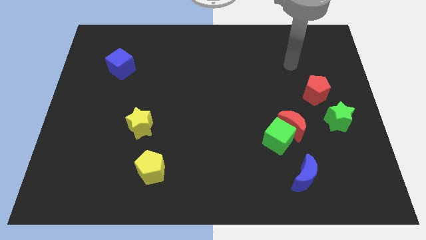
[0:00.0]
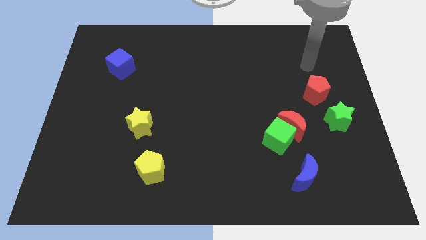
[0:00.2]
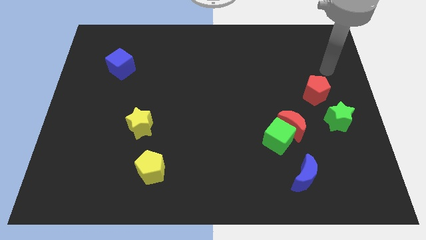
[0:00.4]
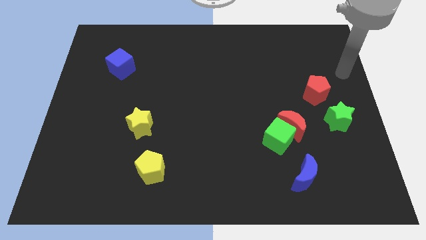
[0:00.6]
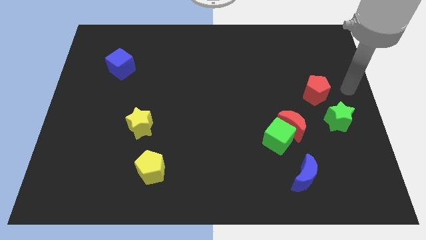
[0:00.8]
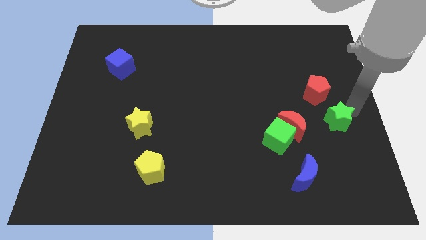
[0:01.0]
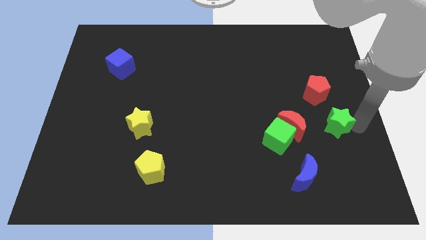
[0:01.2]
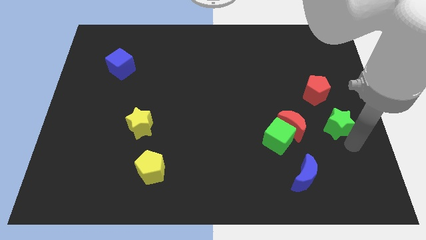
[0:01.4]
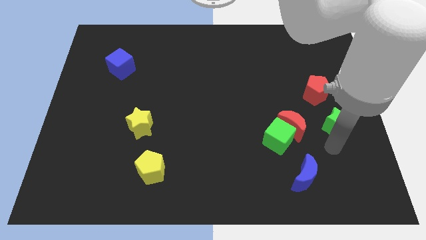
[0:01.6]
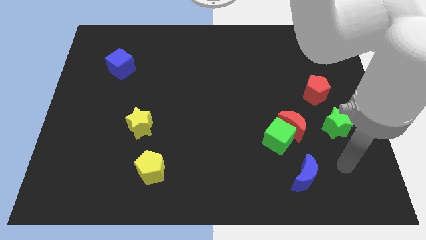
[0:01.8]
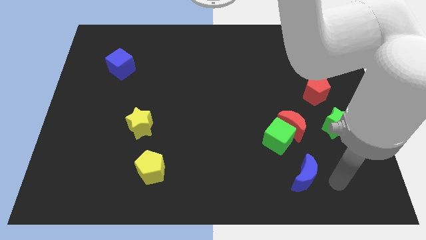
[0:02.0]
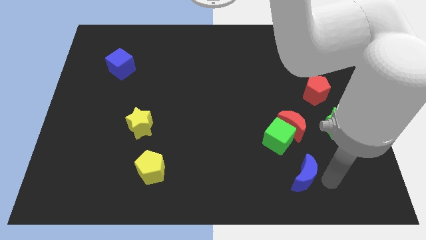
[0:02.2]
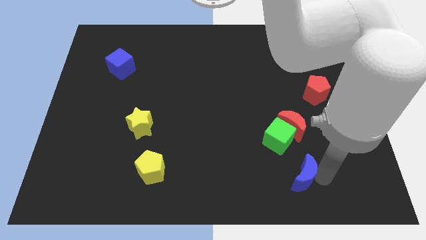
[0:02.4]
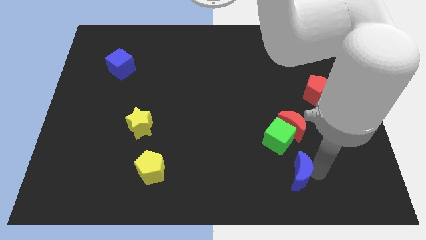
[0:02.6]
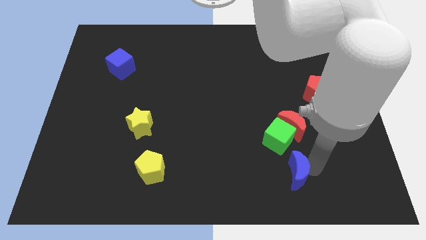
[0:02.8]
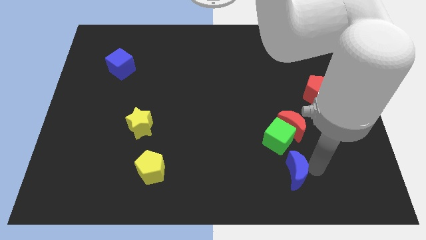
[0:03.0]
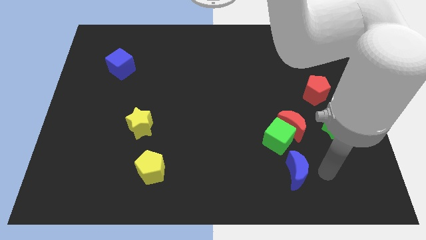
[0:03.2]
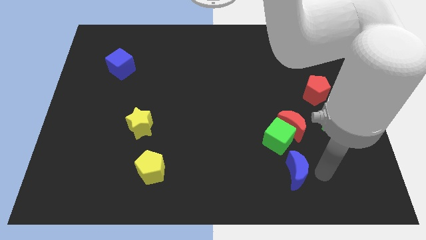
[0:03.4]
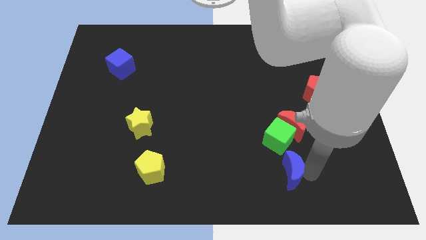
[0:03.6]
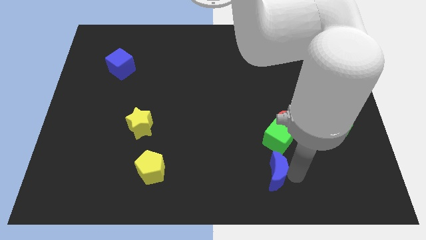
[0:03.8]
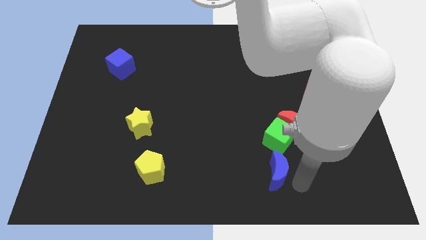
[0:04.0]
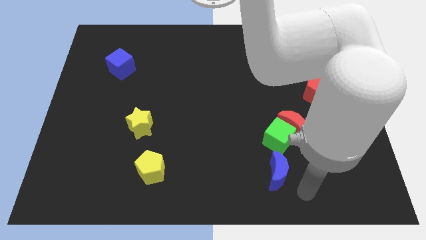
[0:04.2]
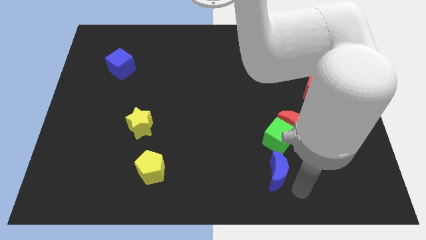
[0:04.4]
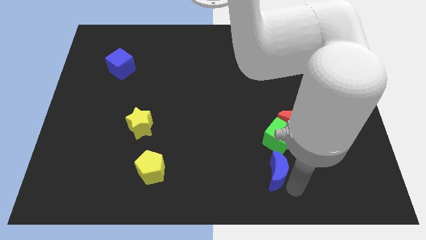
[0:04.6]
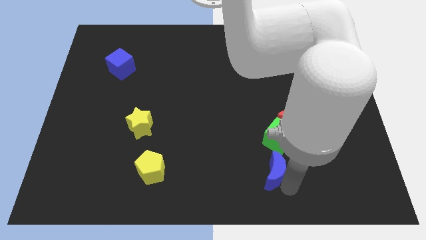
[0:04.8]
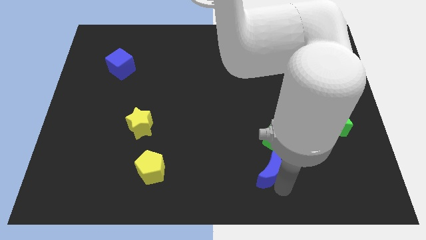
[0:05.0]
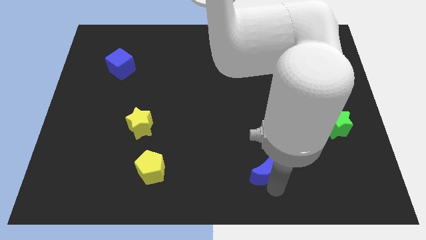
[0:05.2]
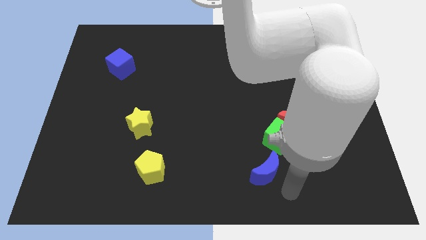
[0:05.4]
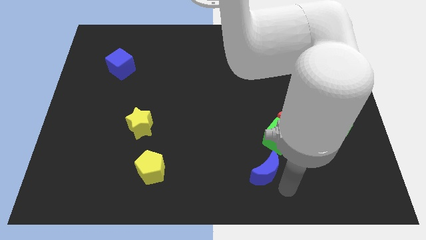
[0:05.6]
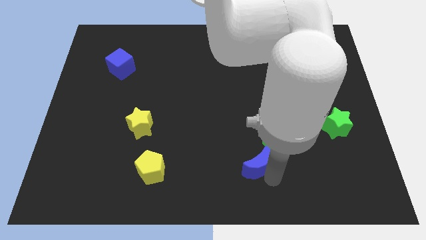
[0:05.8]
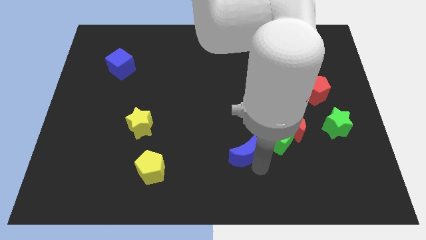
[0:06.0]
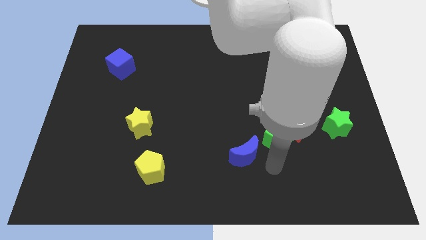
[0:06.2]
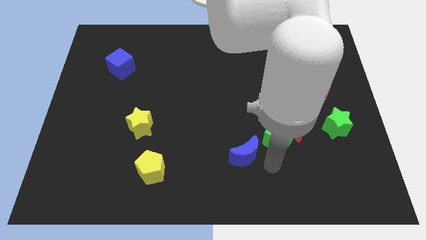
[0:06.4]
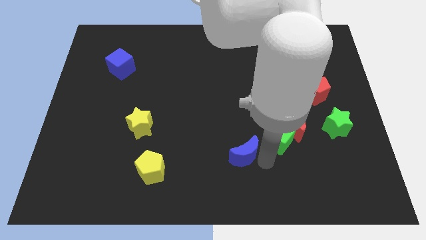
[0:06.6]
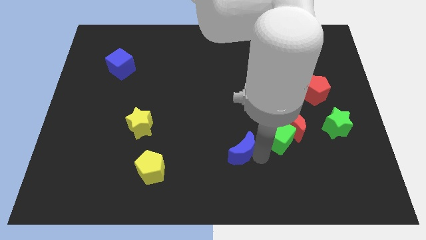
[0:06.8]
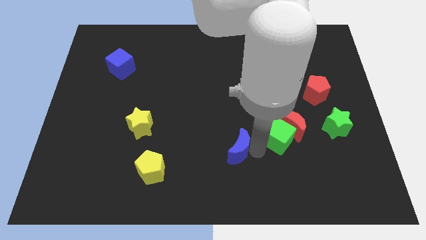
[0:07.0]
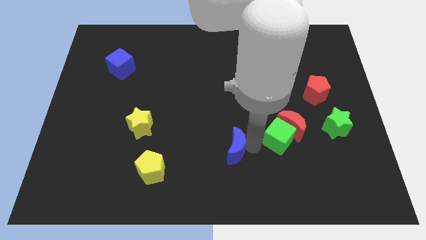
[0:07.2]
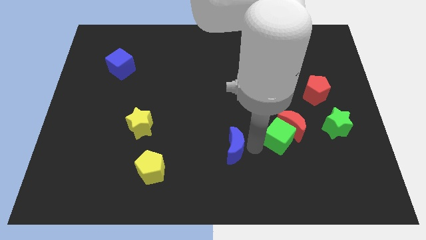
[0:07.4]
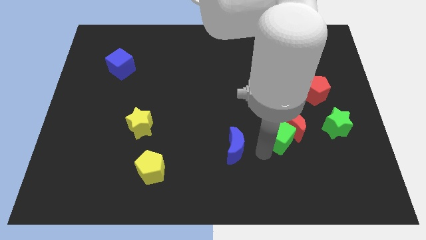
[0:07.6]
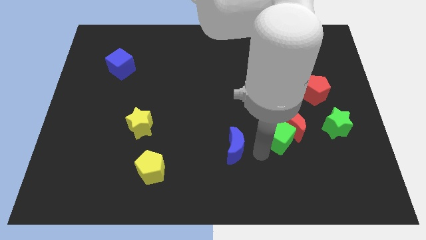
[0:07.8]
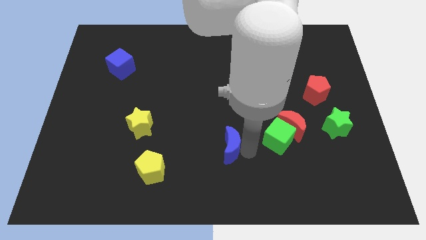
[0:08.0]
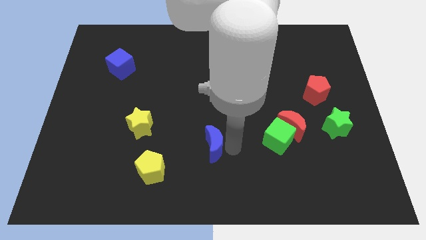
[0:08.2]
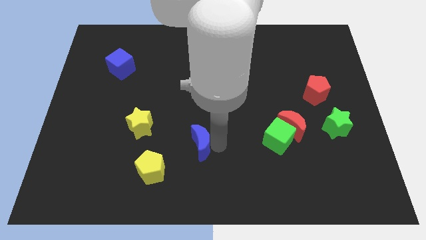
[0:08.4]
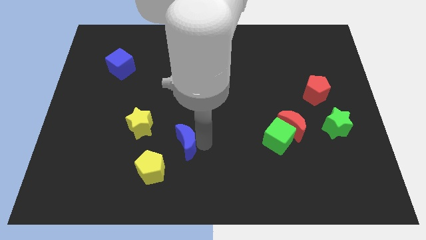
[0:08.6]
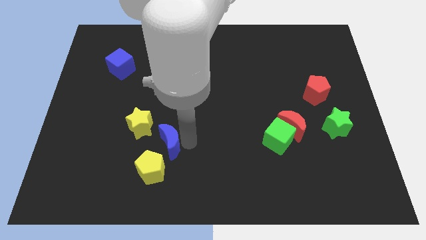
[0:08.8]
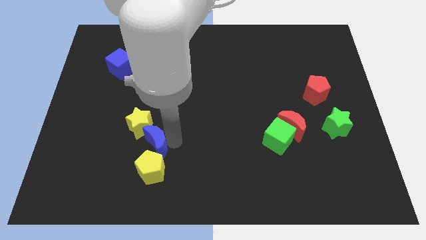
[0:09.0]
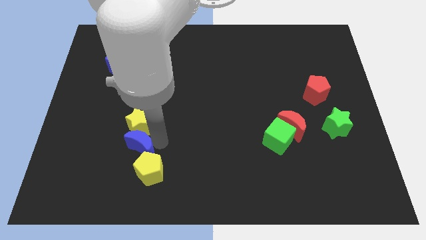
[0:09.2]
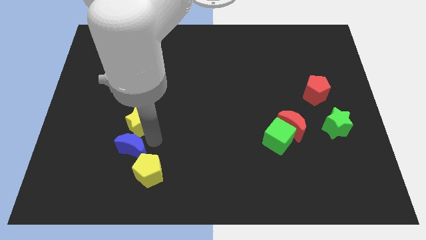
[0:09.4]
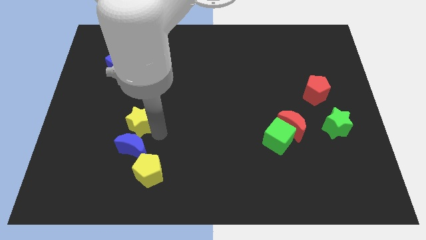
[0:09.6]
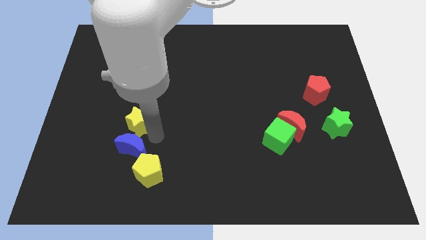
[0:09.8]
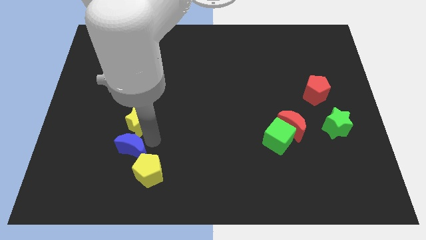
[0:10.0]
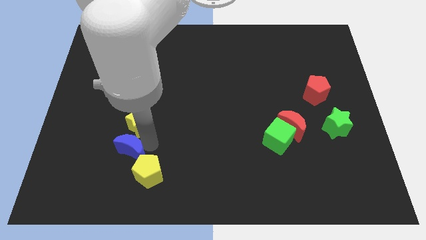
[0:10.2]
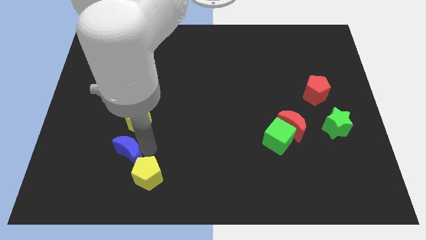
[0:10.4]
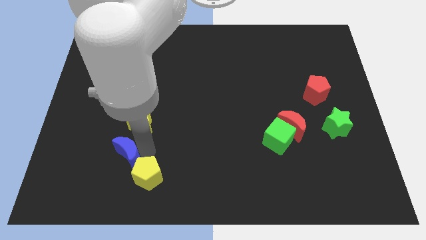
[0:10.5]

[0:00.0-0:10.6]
slide the blue moon to the left of the yellow pentagon

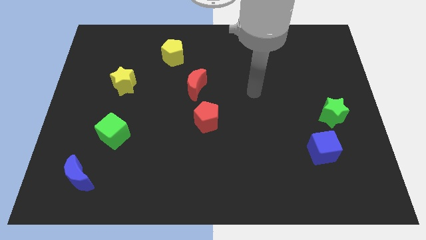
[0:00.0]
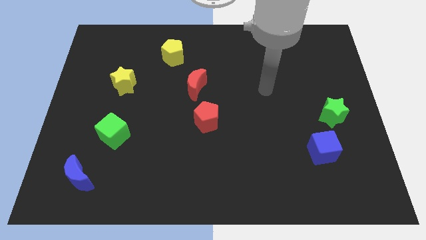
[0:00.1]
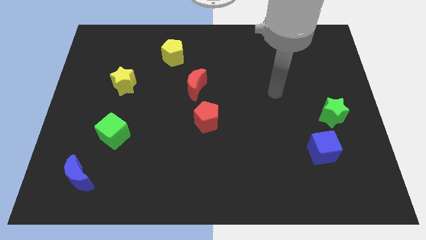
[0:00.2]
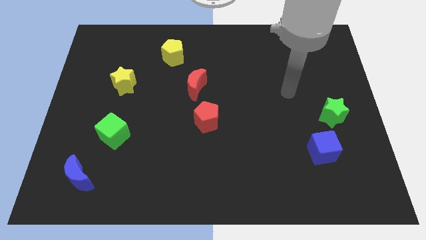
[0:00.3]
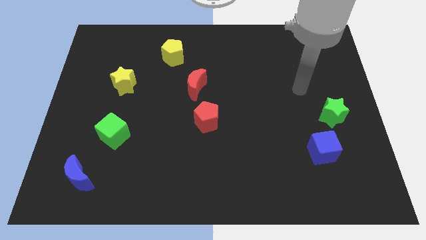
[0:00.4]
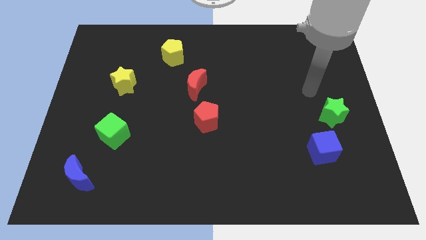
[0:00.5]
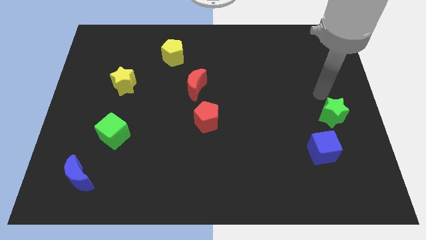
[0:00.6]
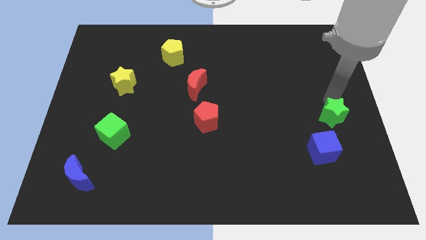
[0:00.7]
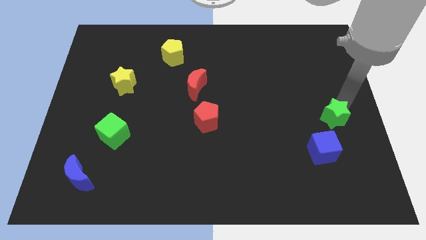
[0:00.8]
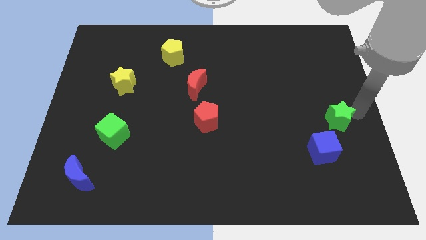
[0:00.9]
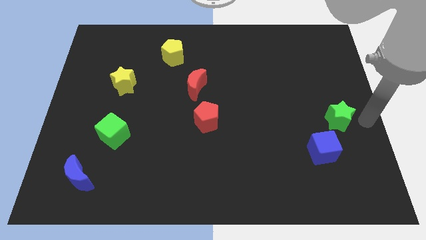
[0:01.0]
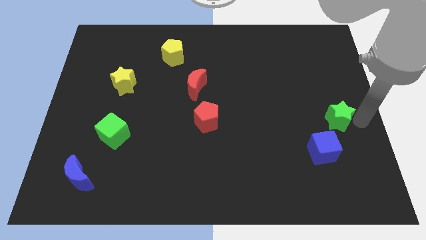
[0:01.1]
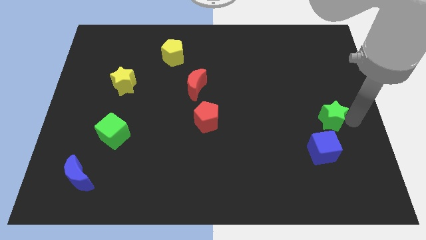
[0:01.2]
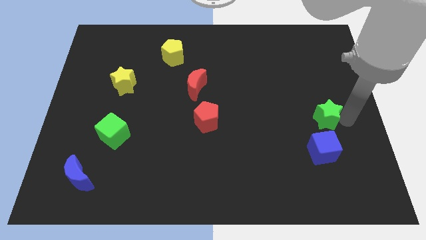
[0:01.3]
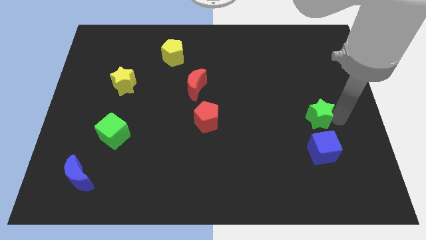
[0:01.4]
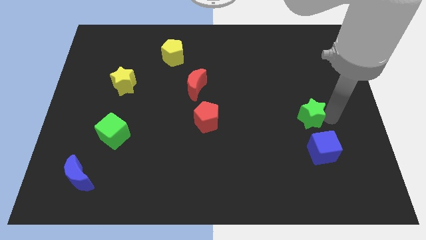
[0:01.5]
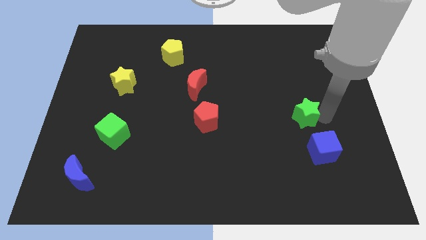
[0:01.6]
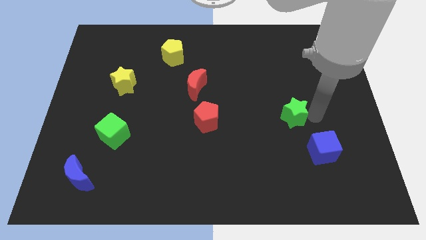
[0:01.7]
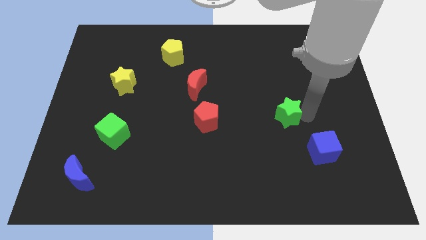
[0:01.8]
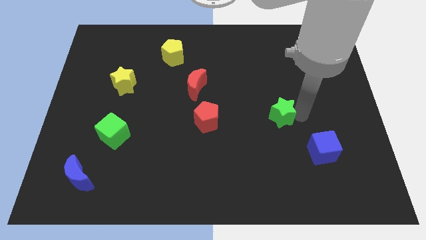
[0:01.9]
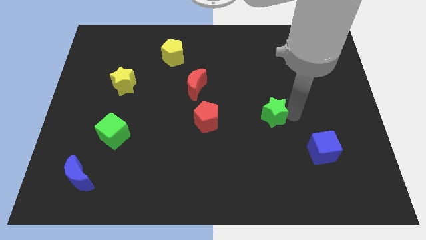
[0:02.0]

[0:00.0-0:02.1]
slide the green star to the right side of the red pentagon
